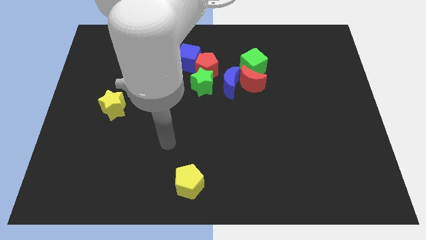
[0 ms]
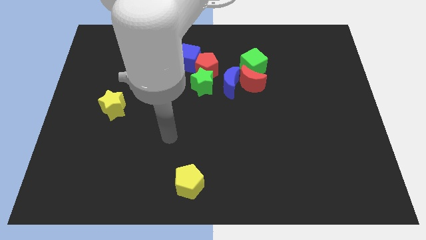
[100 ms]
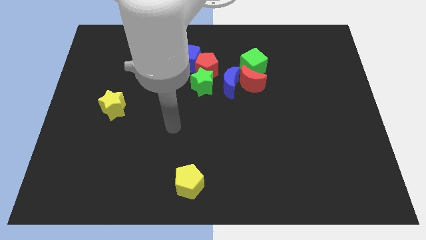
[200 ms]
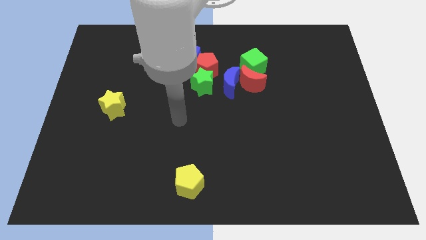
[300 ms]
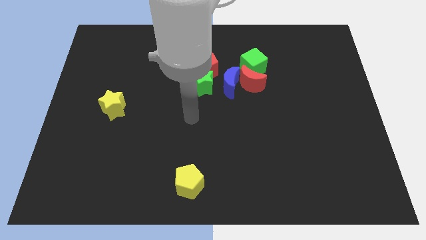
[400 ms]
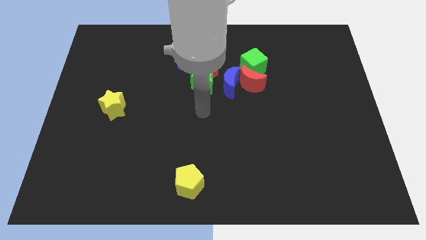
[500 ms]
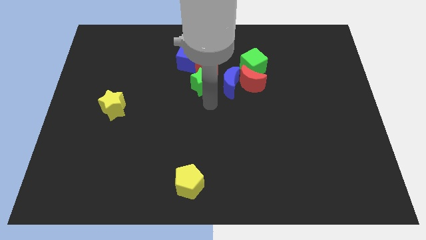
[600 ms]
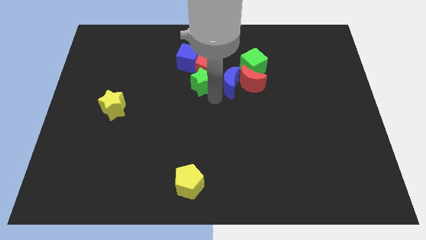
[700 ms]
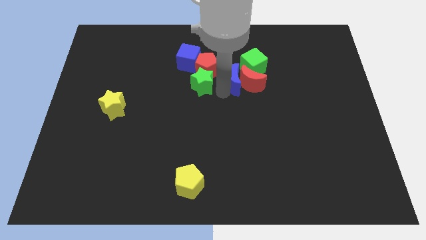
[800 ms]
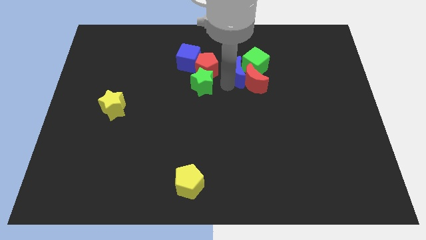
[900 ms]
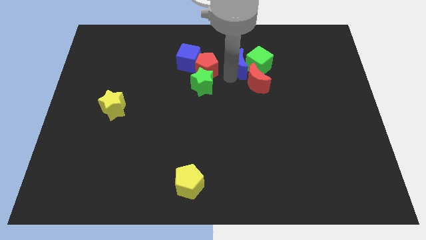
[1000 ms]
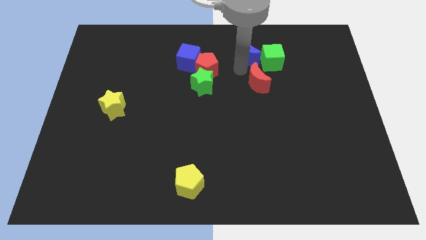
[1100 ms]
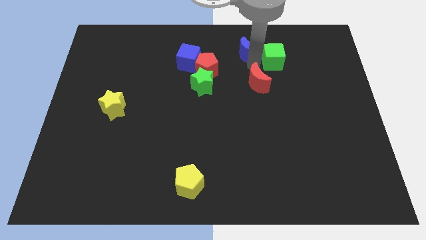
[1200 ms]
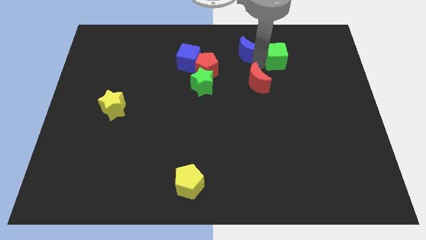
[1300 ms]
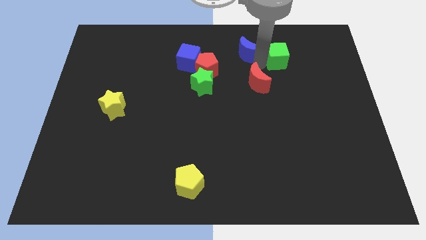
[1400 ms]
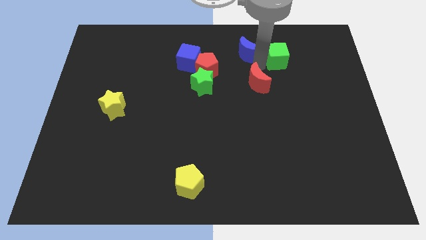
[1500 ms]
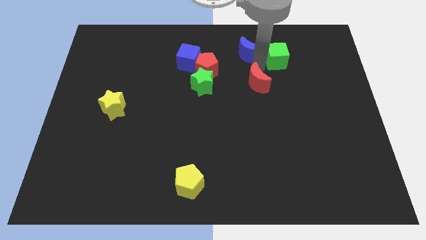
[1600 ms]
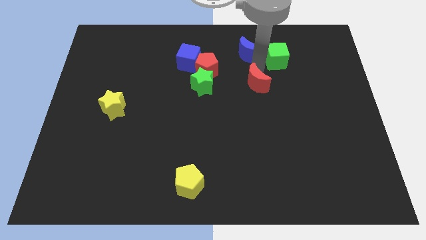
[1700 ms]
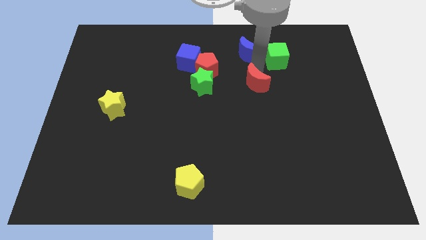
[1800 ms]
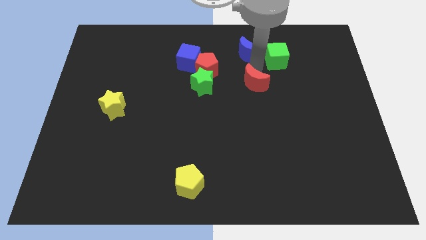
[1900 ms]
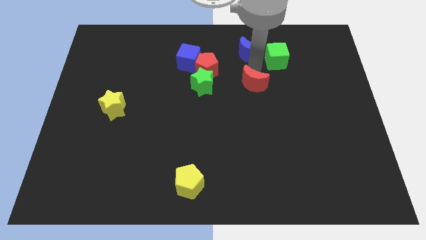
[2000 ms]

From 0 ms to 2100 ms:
pull the red moon apart from the blue moon and green cube

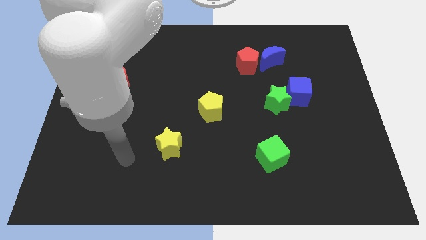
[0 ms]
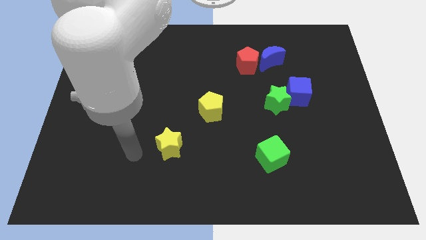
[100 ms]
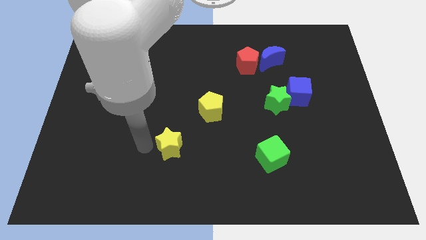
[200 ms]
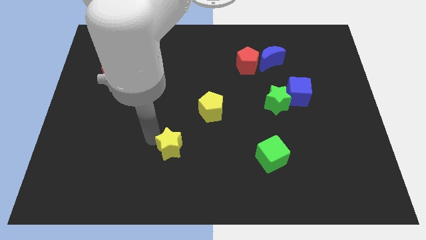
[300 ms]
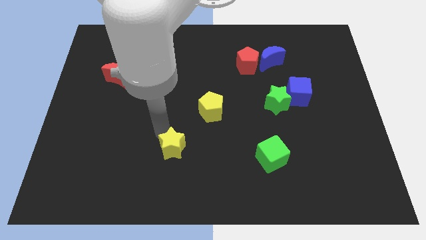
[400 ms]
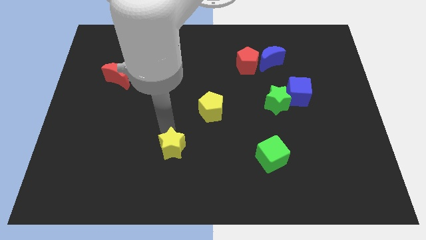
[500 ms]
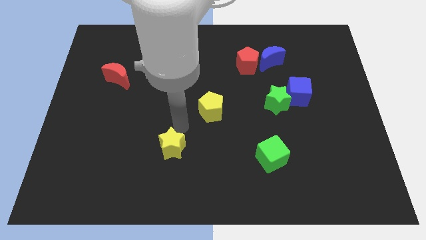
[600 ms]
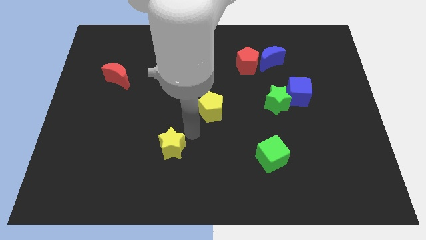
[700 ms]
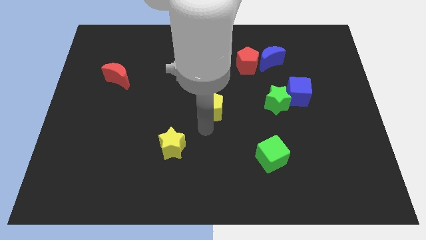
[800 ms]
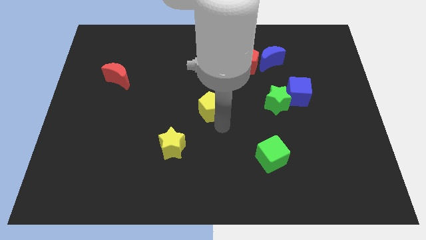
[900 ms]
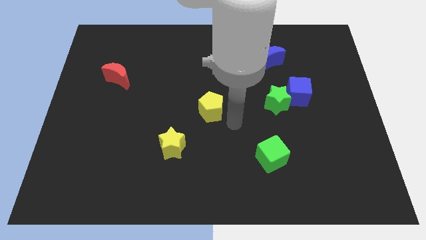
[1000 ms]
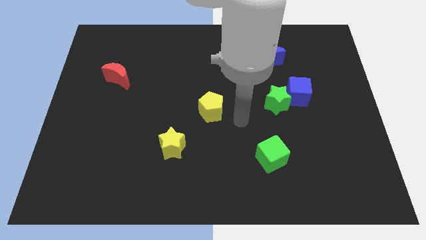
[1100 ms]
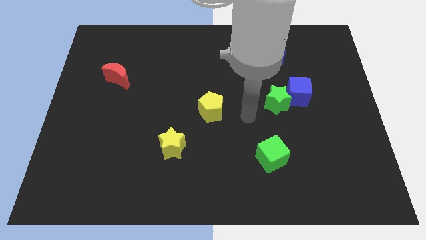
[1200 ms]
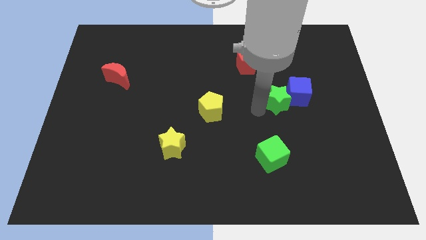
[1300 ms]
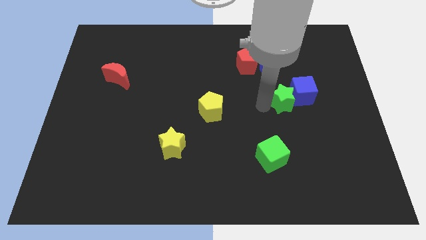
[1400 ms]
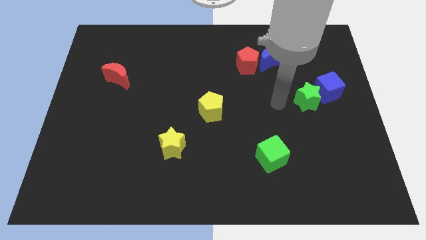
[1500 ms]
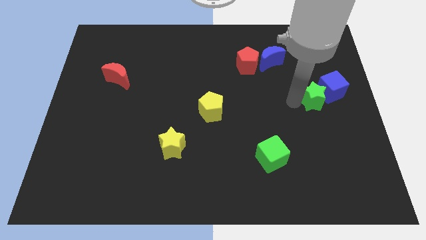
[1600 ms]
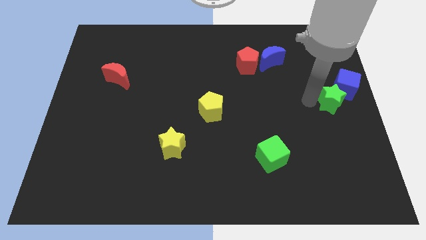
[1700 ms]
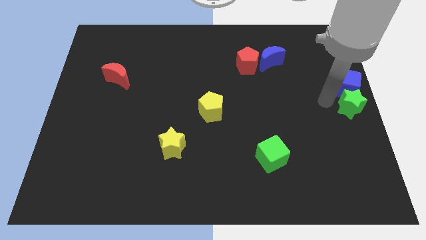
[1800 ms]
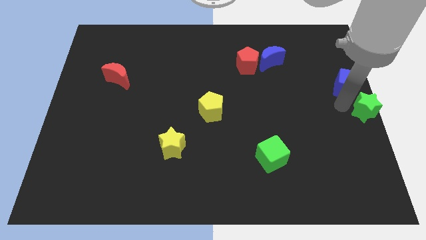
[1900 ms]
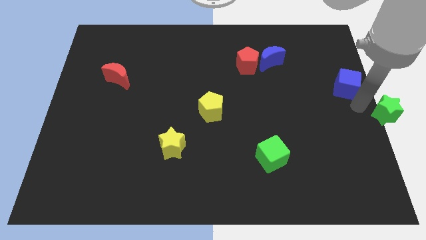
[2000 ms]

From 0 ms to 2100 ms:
separate the blue cube from the green star

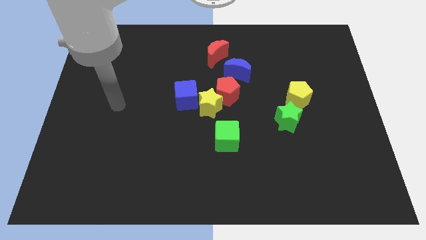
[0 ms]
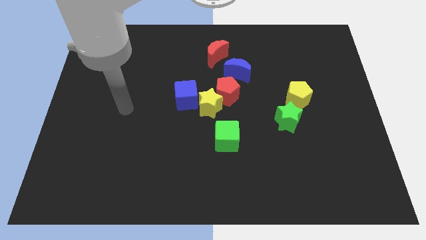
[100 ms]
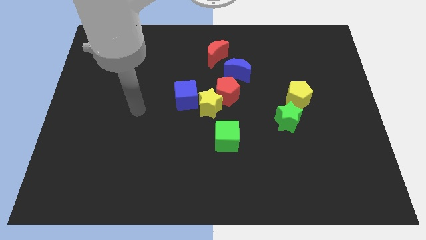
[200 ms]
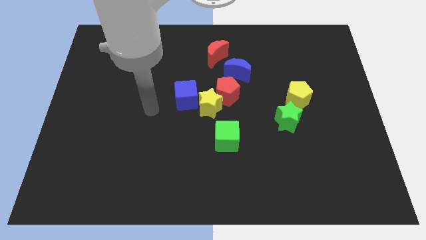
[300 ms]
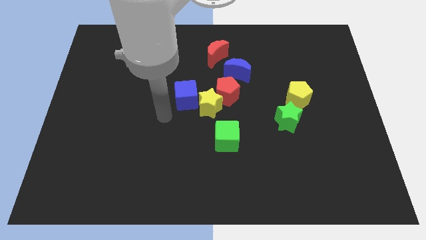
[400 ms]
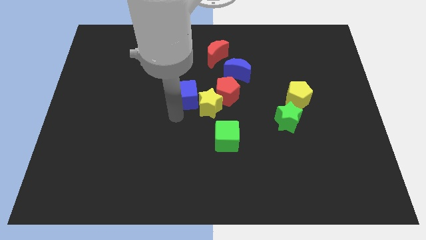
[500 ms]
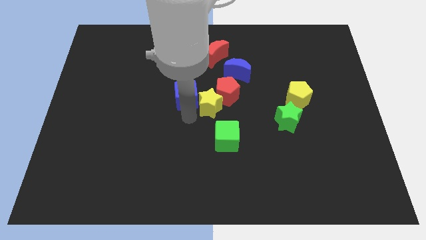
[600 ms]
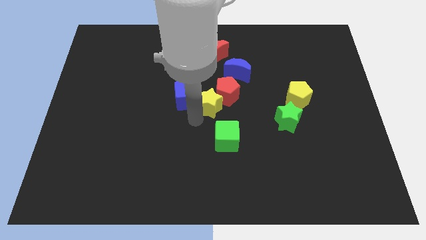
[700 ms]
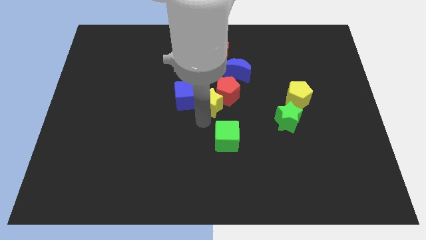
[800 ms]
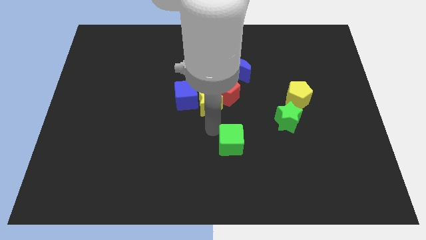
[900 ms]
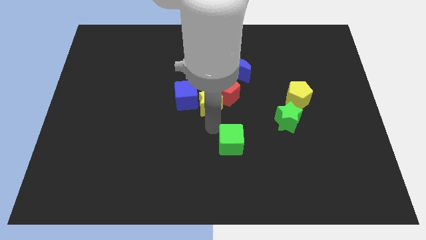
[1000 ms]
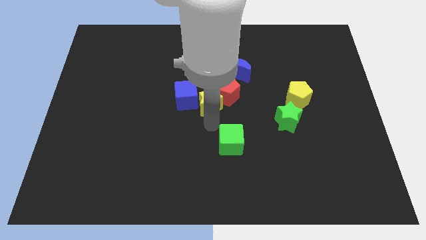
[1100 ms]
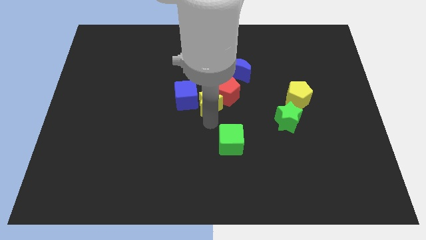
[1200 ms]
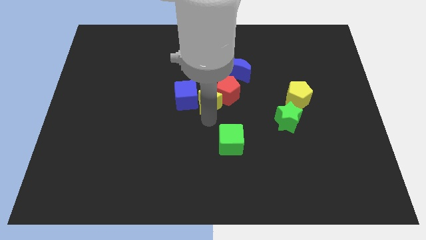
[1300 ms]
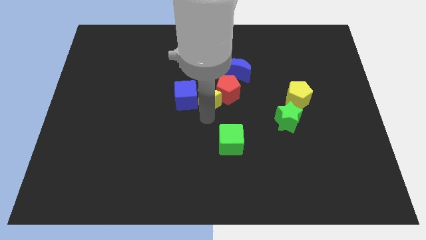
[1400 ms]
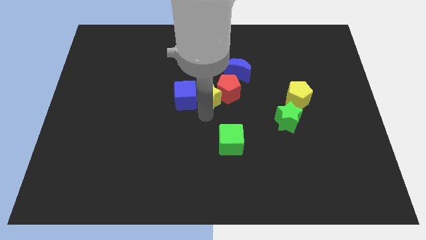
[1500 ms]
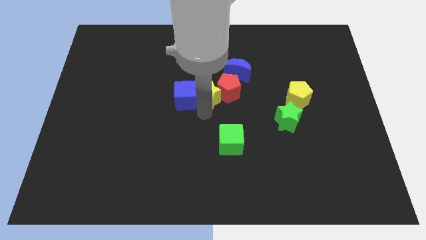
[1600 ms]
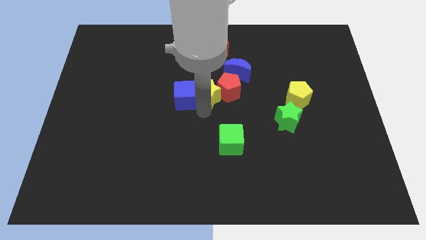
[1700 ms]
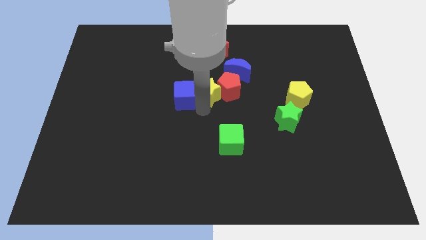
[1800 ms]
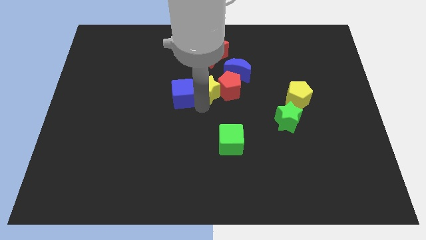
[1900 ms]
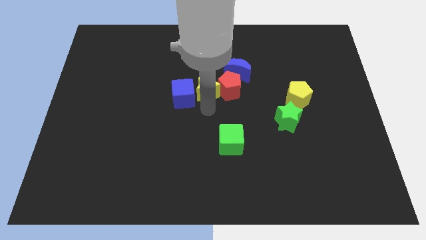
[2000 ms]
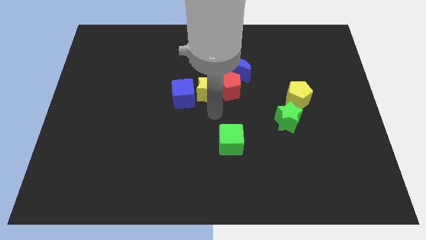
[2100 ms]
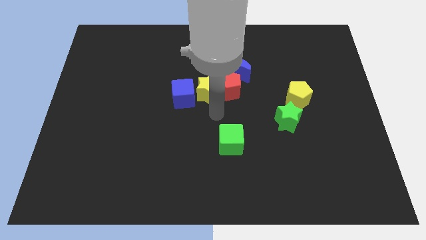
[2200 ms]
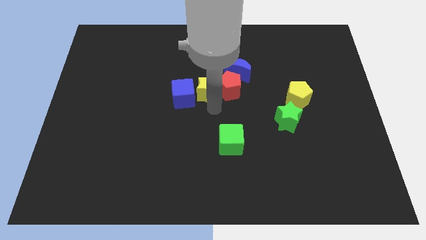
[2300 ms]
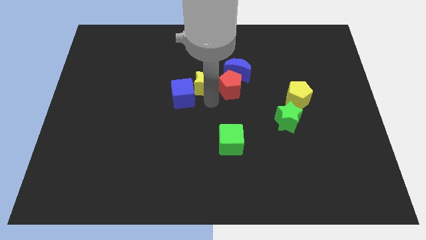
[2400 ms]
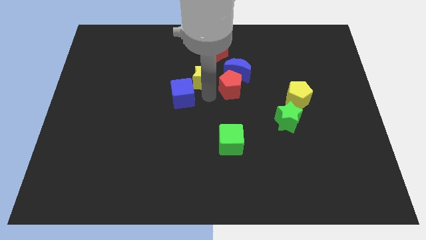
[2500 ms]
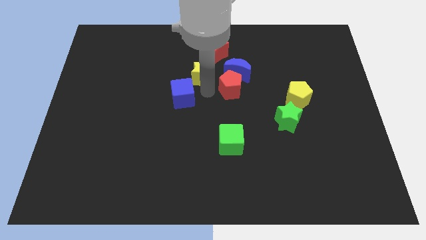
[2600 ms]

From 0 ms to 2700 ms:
pull the yellow star apart from the red pentagon, blue cube, and green cube

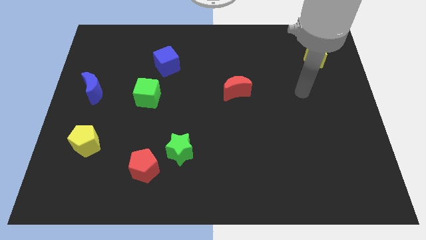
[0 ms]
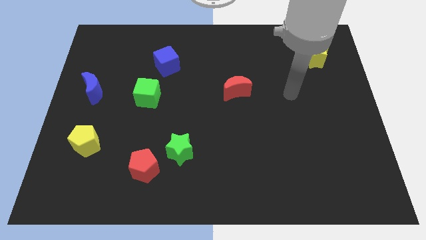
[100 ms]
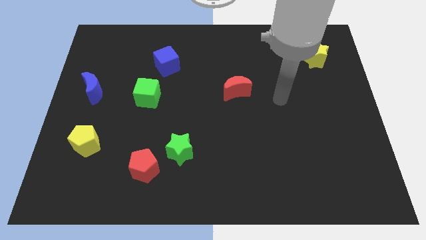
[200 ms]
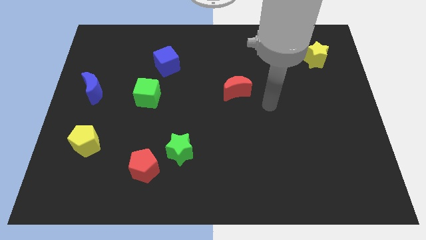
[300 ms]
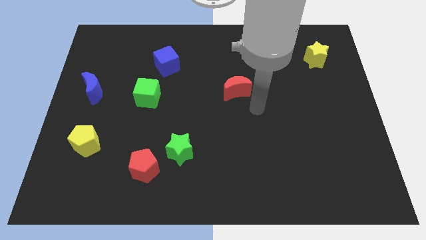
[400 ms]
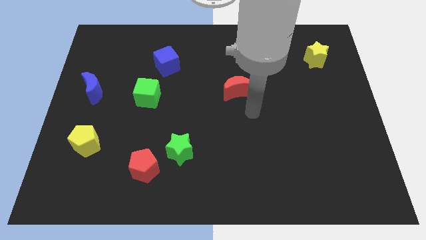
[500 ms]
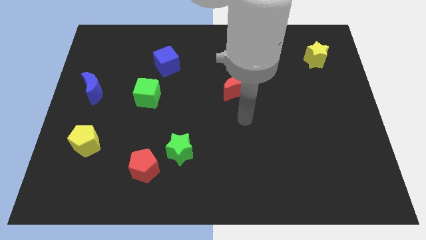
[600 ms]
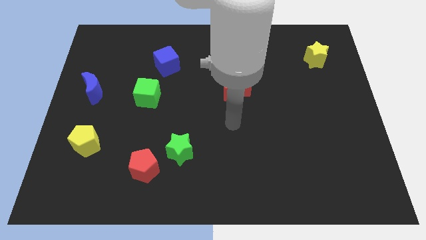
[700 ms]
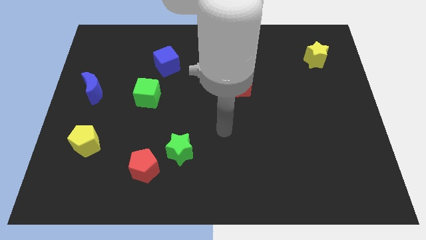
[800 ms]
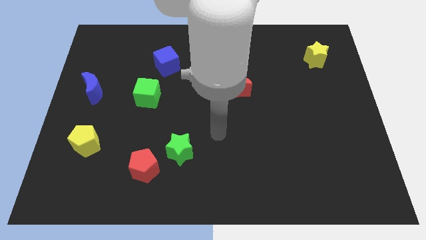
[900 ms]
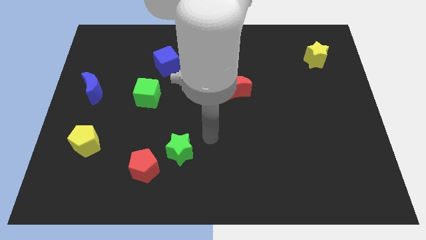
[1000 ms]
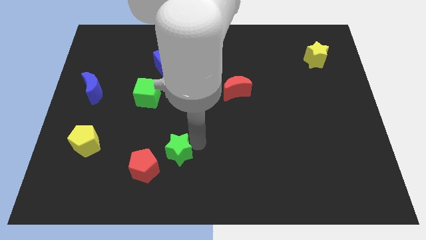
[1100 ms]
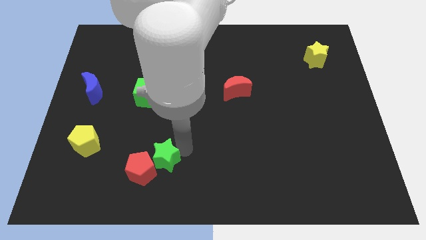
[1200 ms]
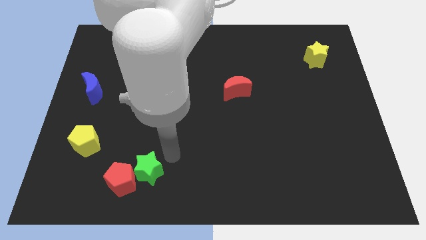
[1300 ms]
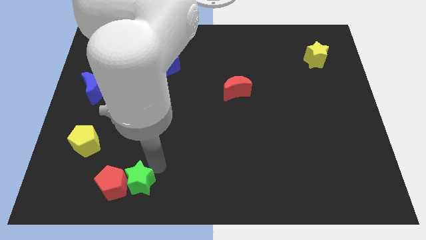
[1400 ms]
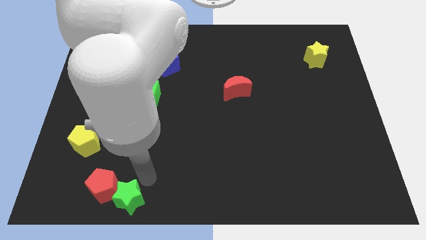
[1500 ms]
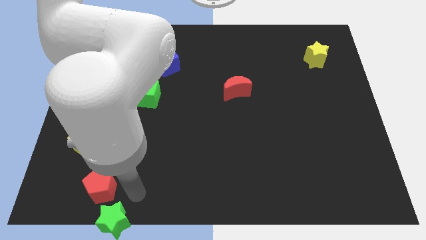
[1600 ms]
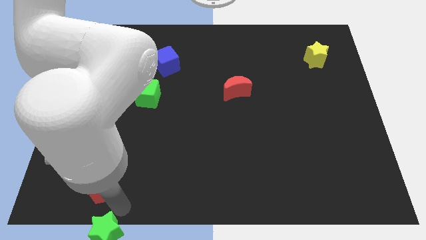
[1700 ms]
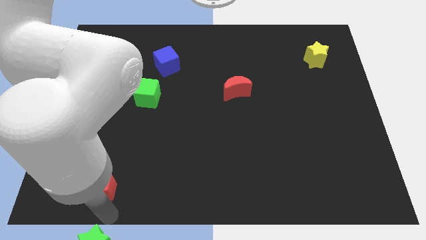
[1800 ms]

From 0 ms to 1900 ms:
pull the red pentagon apart from the green star

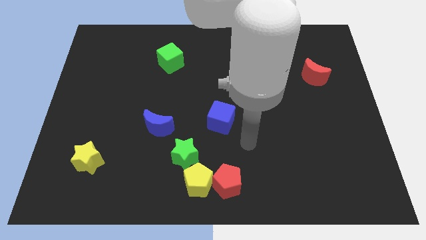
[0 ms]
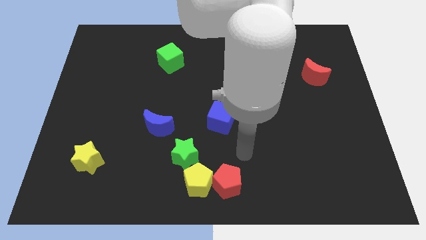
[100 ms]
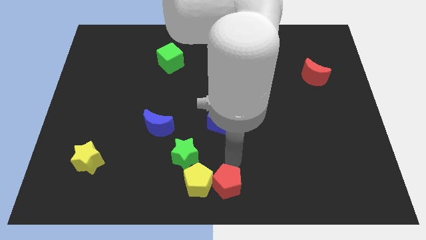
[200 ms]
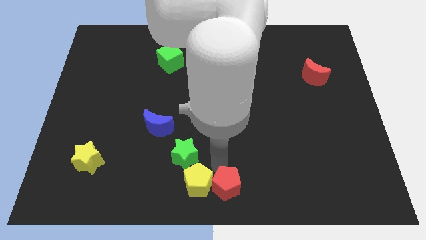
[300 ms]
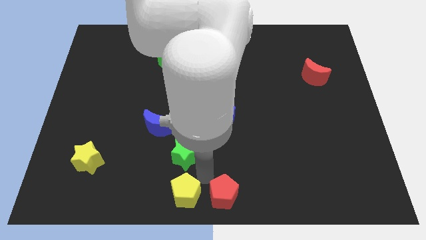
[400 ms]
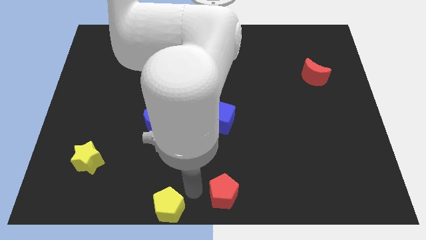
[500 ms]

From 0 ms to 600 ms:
move the red pentagon away from the yellow pentagon
